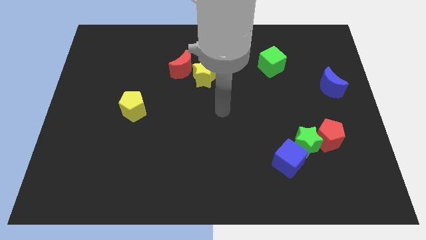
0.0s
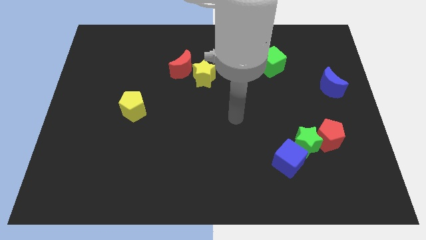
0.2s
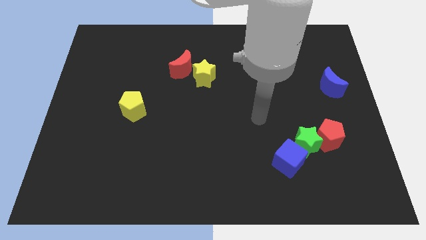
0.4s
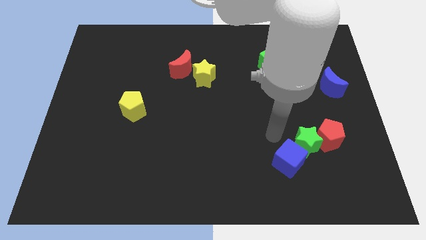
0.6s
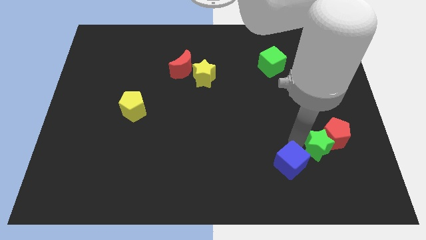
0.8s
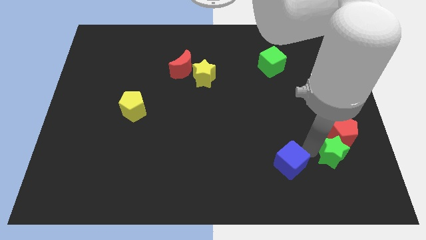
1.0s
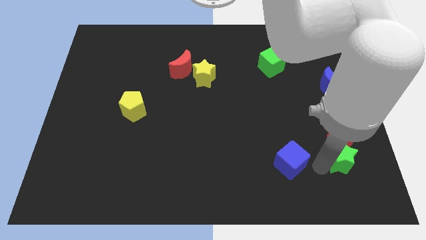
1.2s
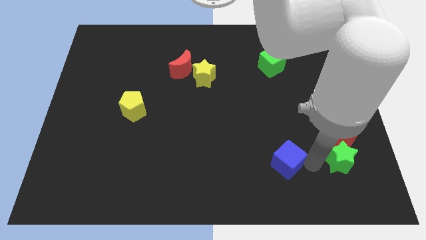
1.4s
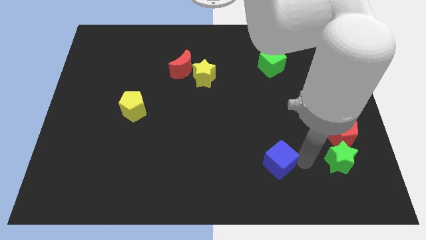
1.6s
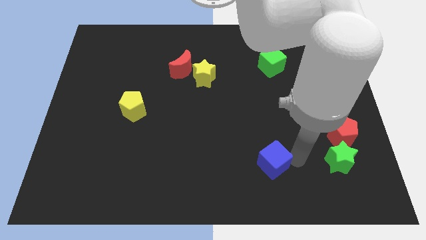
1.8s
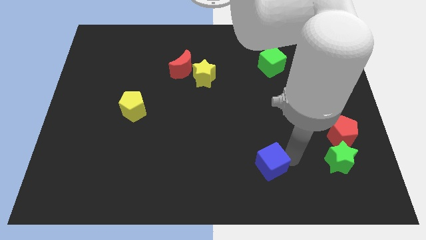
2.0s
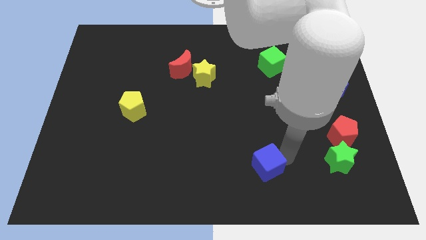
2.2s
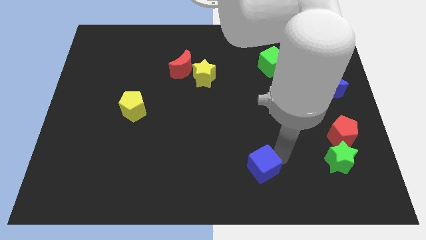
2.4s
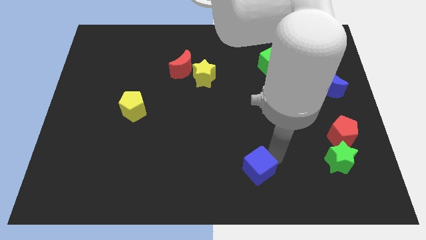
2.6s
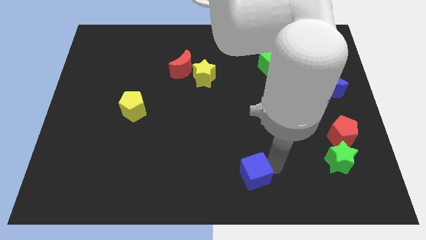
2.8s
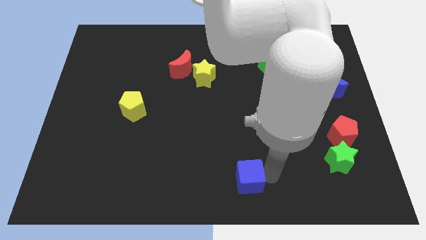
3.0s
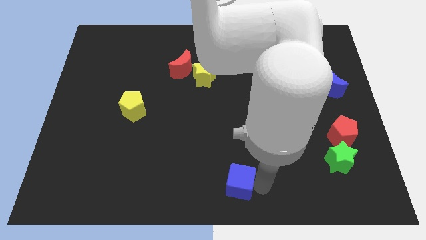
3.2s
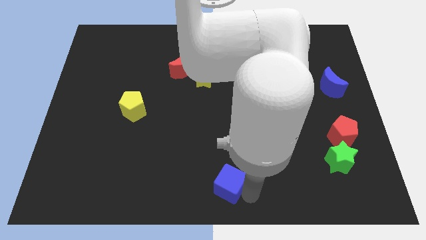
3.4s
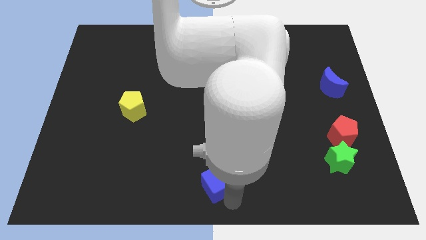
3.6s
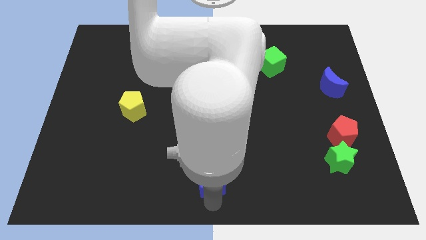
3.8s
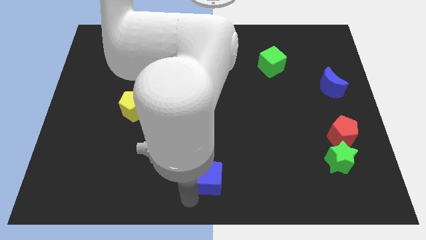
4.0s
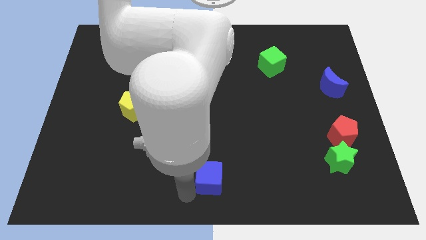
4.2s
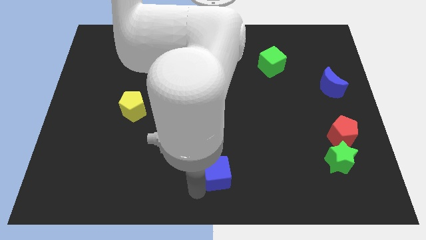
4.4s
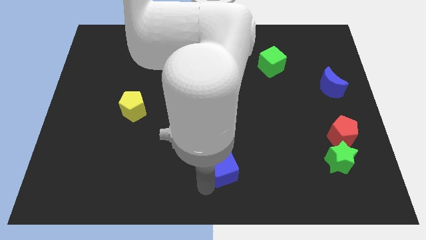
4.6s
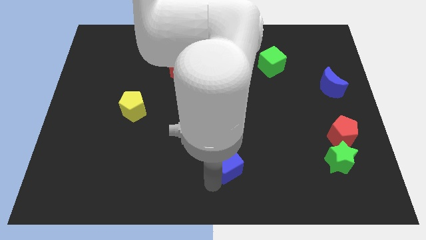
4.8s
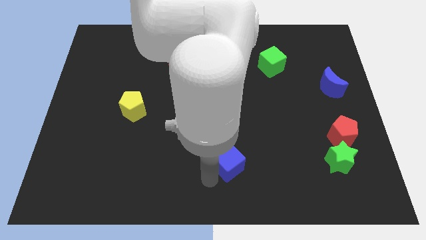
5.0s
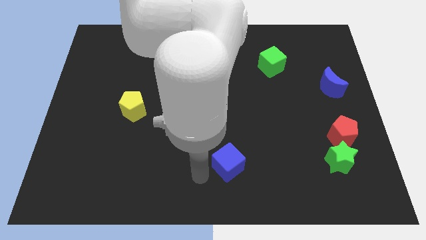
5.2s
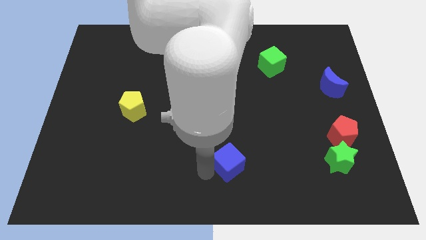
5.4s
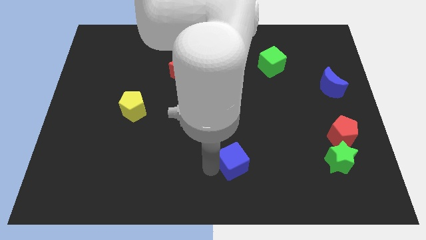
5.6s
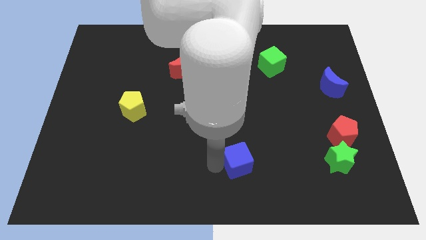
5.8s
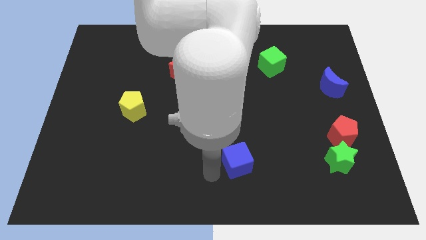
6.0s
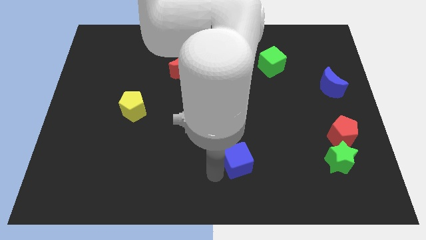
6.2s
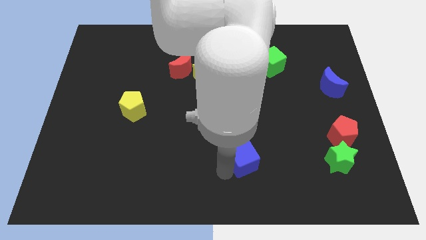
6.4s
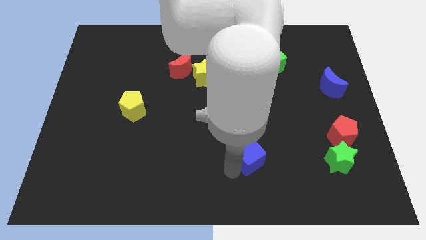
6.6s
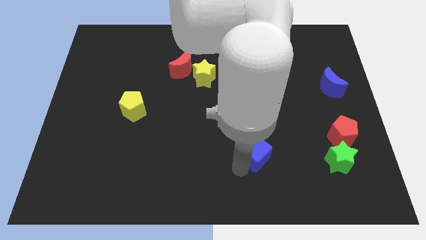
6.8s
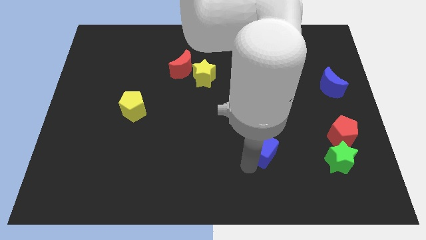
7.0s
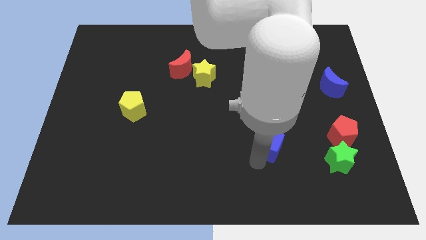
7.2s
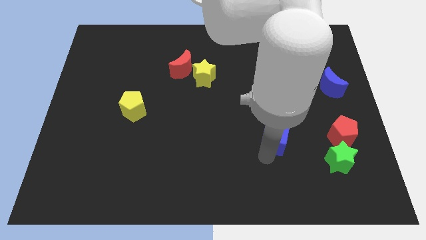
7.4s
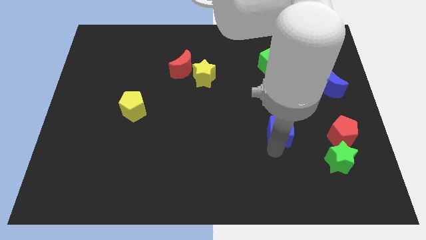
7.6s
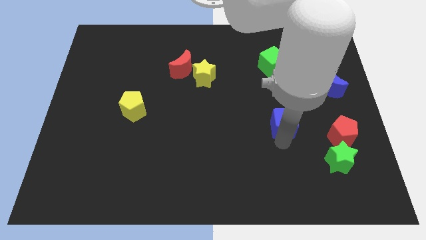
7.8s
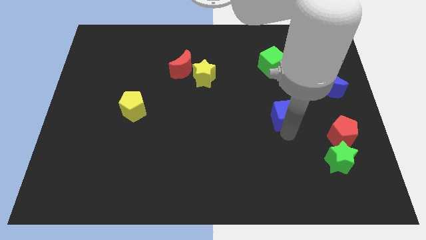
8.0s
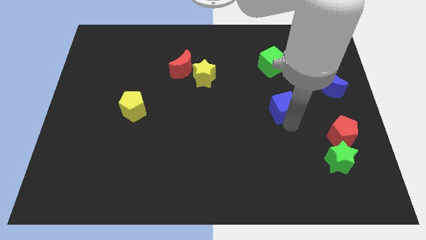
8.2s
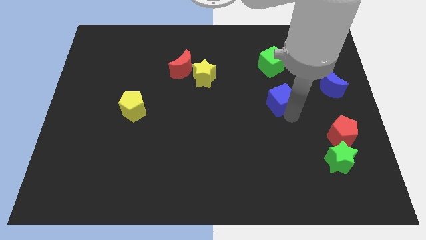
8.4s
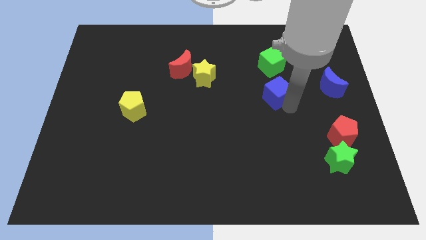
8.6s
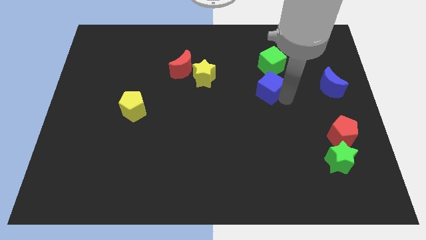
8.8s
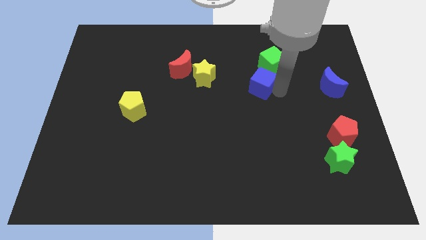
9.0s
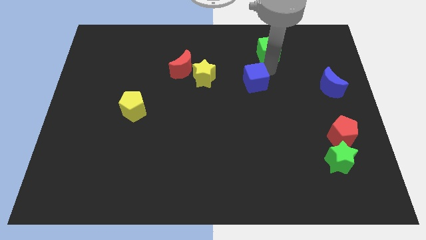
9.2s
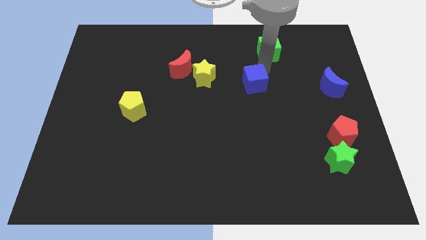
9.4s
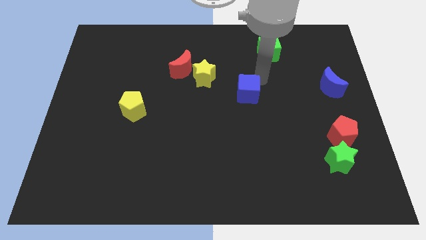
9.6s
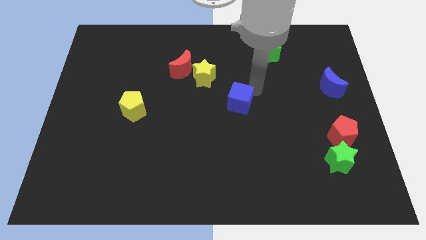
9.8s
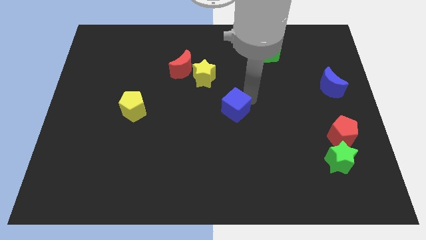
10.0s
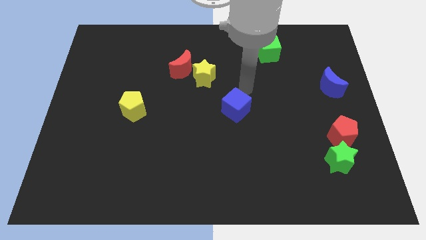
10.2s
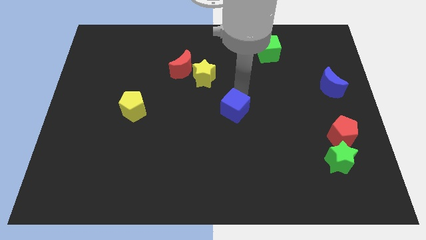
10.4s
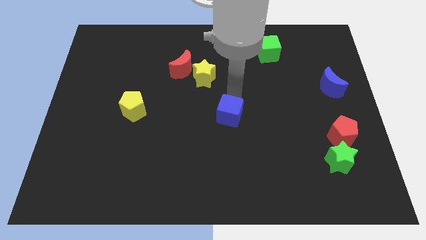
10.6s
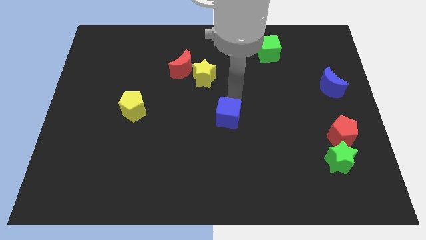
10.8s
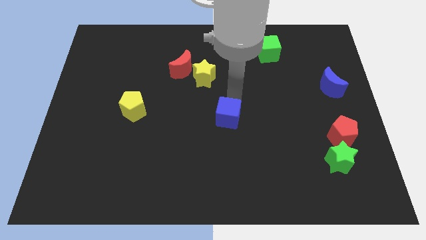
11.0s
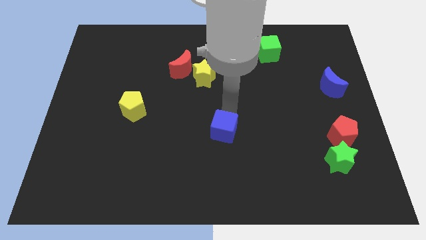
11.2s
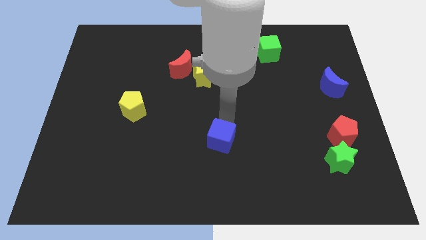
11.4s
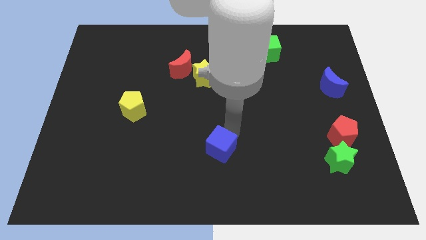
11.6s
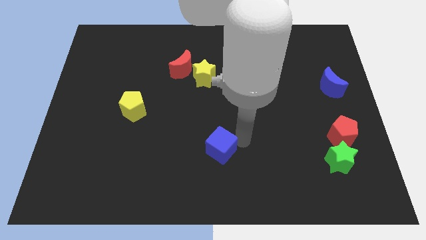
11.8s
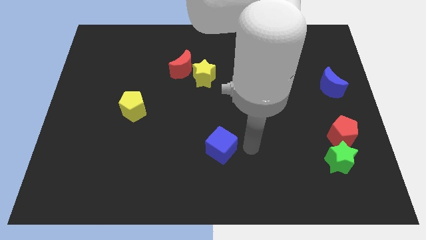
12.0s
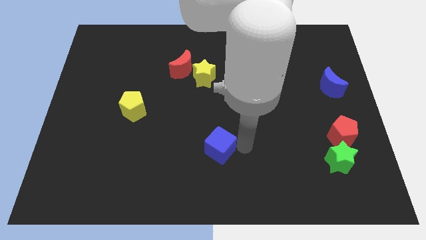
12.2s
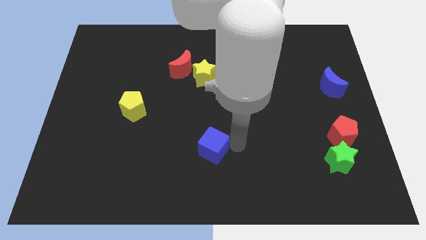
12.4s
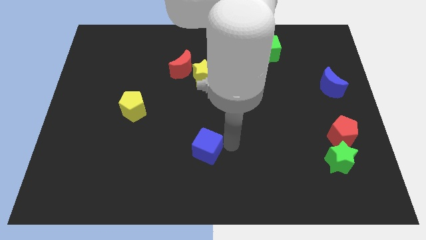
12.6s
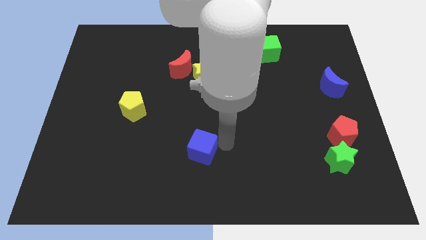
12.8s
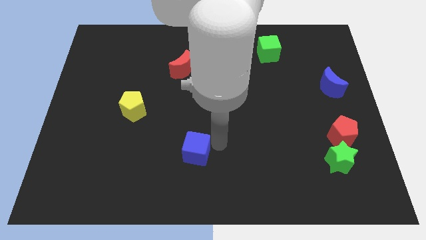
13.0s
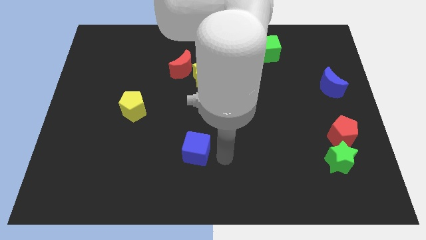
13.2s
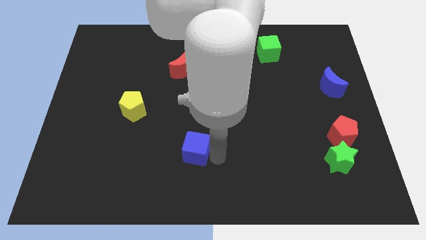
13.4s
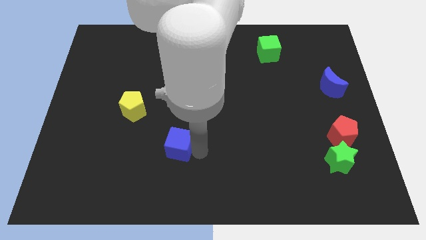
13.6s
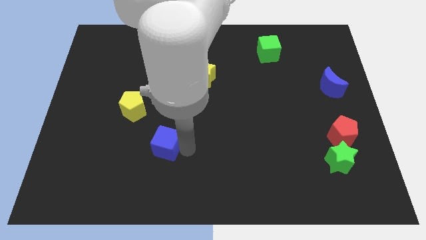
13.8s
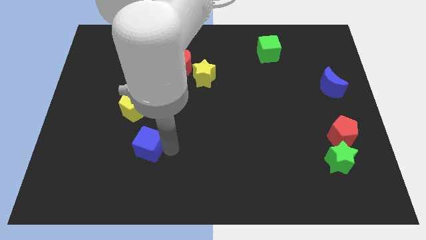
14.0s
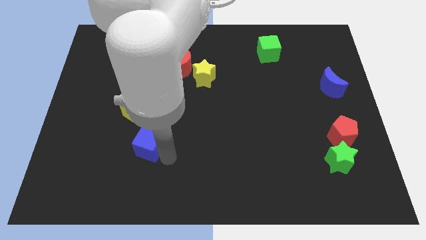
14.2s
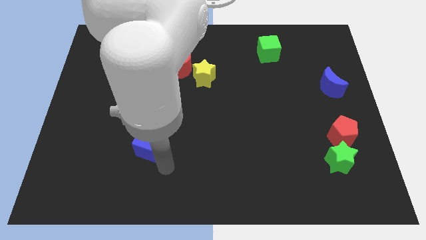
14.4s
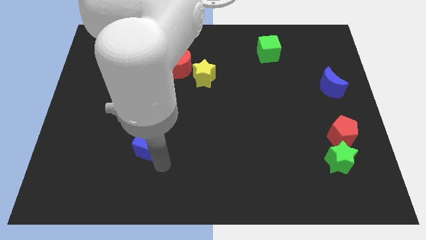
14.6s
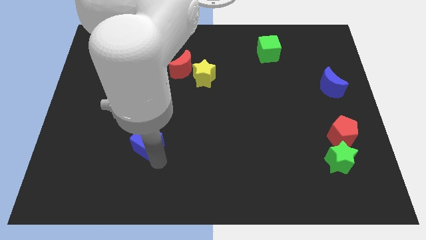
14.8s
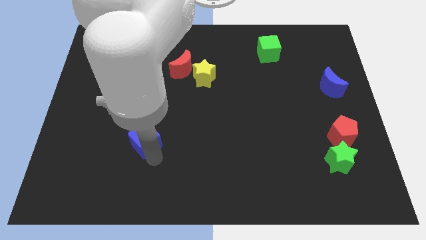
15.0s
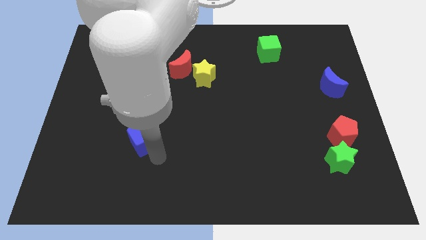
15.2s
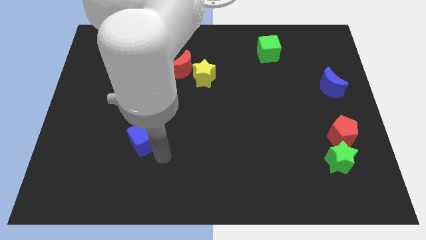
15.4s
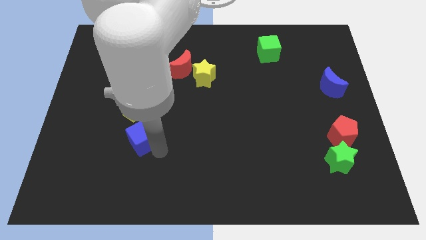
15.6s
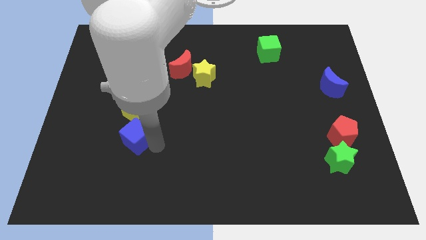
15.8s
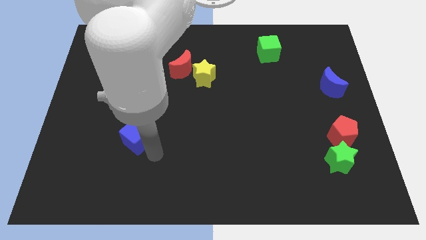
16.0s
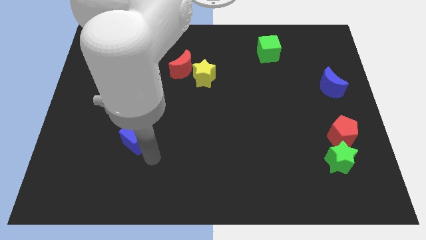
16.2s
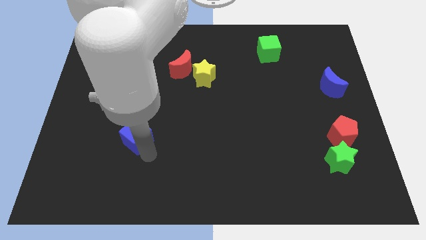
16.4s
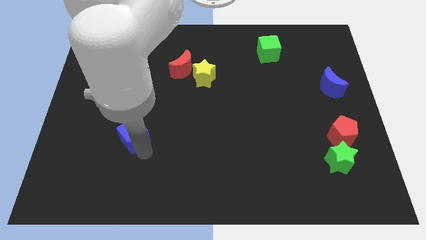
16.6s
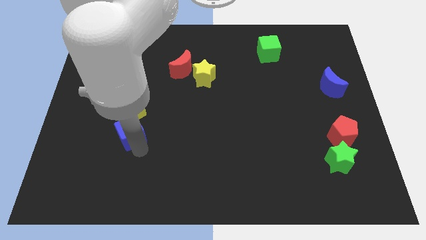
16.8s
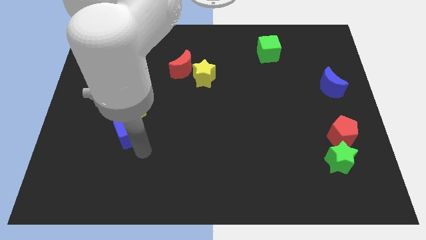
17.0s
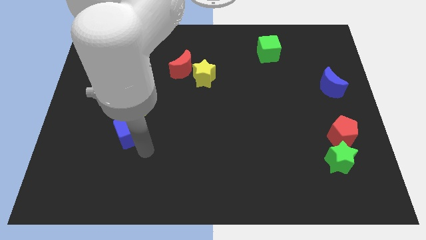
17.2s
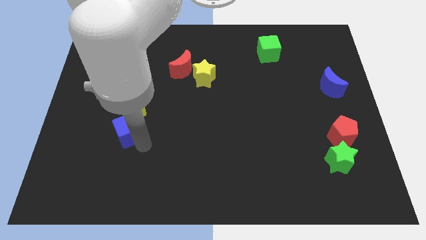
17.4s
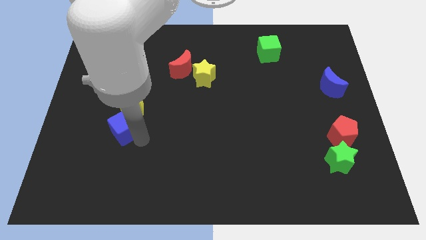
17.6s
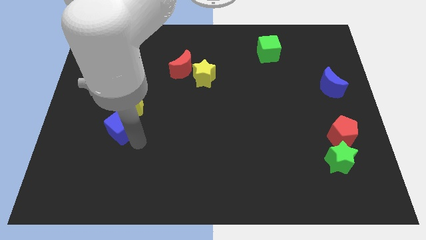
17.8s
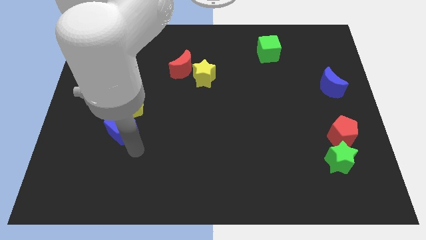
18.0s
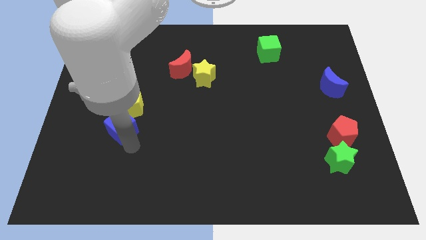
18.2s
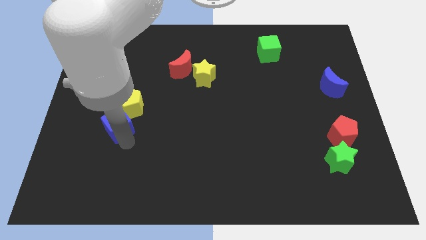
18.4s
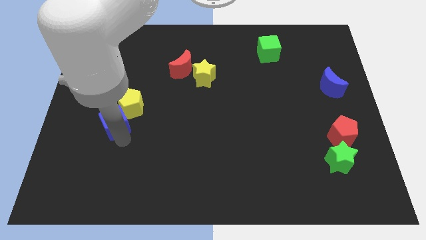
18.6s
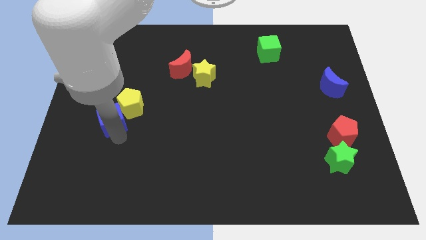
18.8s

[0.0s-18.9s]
put the blue cube to the left side of the yellow pentagon
